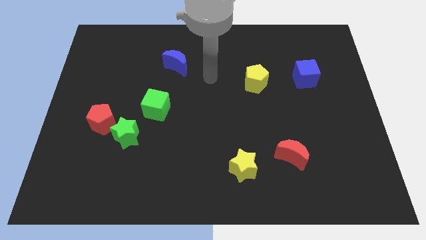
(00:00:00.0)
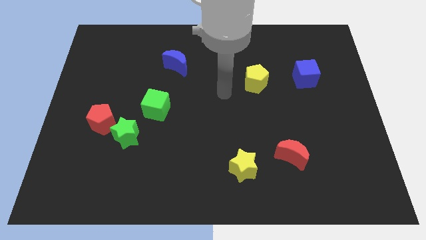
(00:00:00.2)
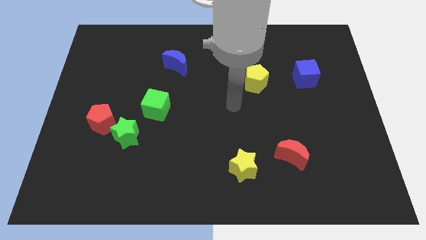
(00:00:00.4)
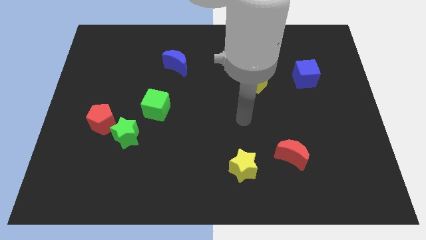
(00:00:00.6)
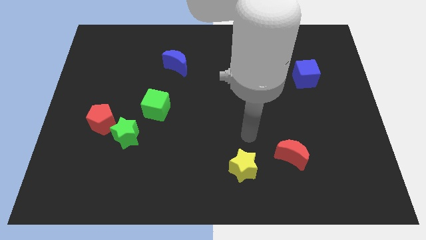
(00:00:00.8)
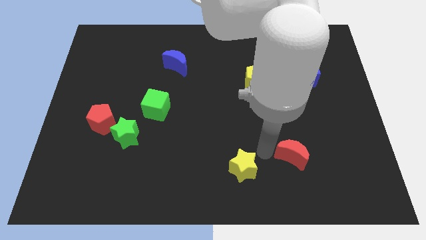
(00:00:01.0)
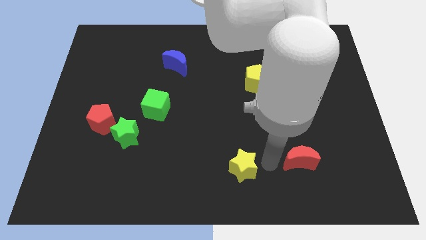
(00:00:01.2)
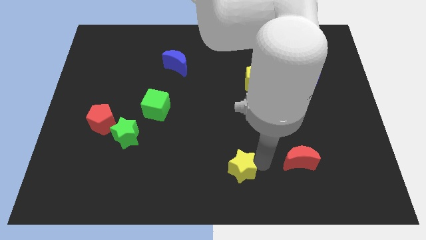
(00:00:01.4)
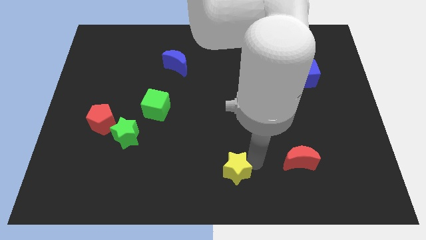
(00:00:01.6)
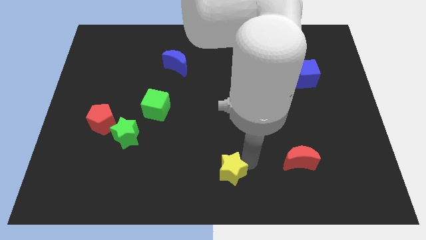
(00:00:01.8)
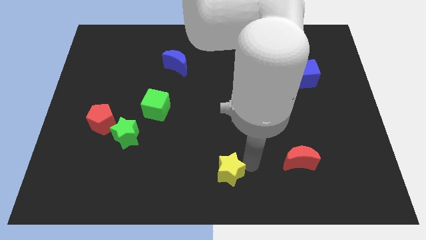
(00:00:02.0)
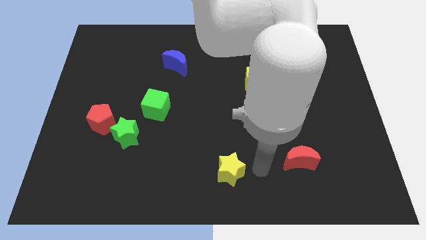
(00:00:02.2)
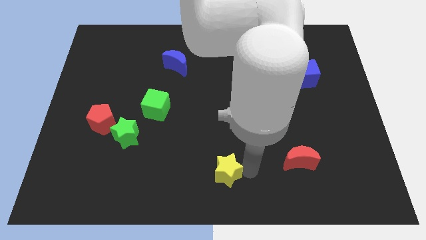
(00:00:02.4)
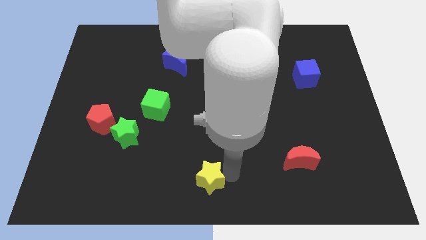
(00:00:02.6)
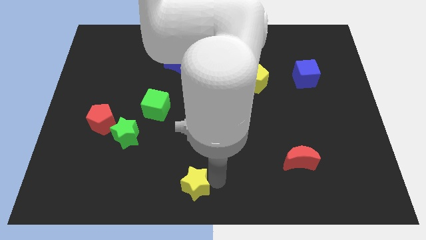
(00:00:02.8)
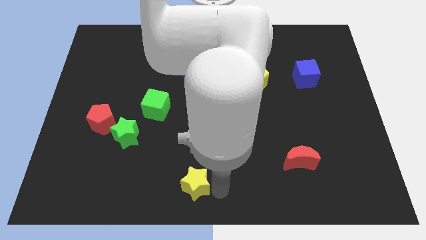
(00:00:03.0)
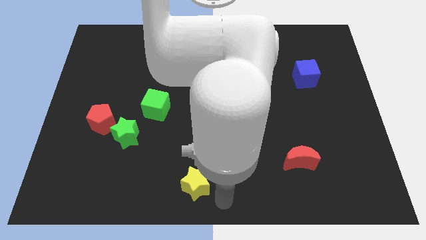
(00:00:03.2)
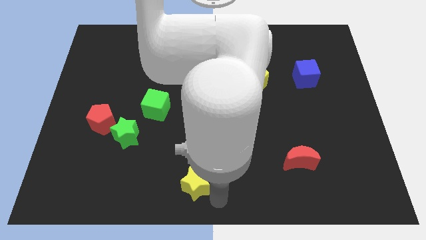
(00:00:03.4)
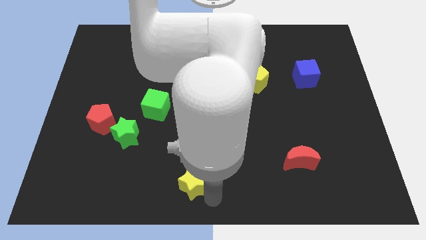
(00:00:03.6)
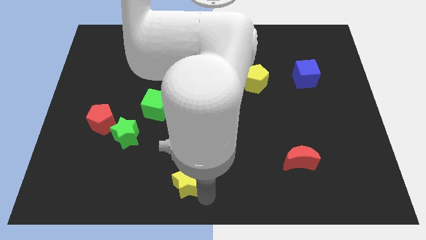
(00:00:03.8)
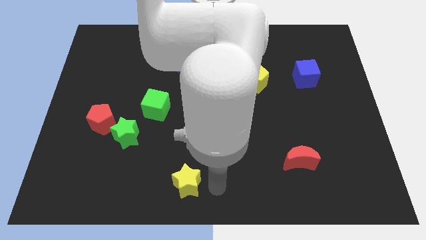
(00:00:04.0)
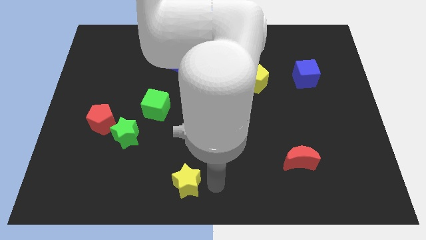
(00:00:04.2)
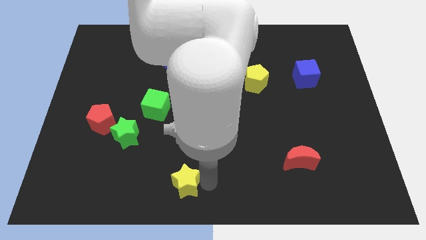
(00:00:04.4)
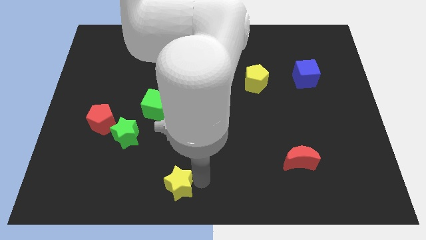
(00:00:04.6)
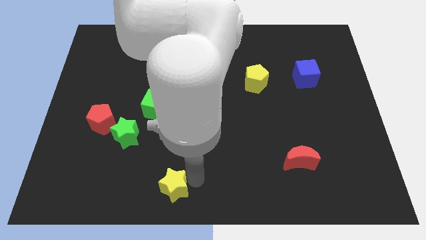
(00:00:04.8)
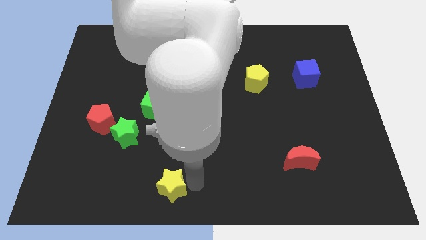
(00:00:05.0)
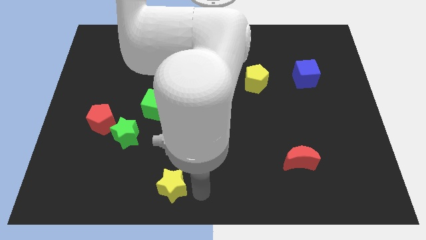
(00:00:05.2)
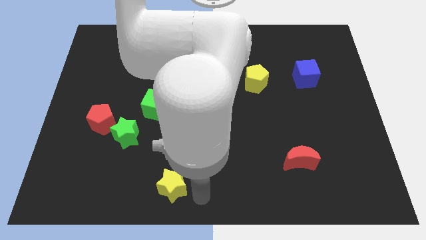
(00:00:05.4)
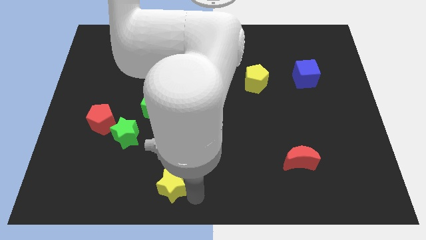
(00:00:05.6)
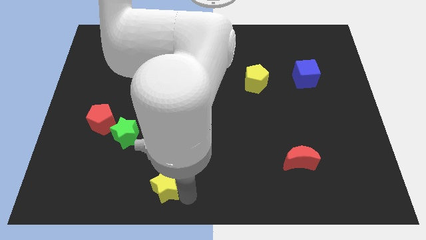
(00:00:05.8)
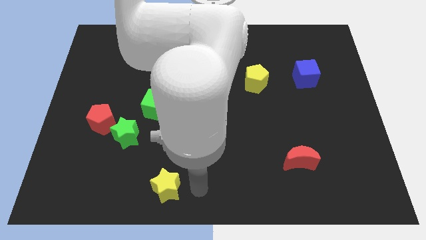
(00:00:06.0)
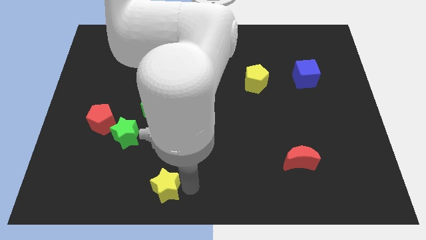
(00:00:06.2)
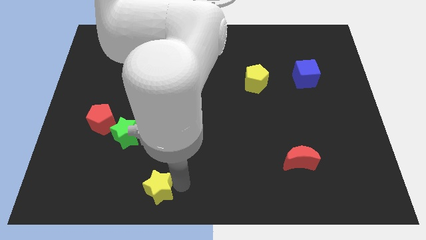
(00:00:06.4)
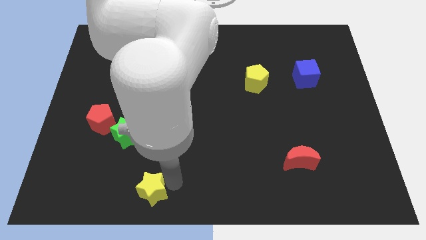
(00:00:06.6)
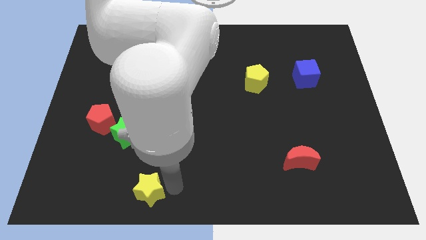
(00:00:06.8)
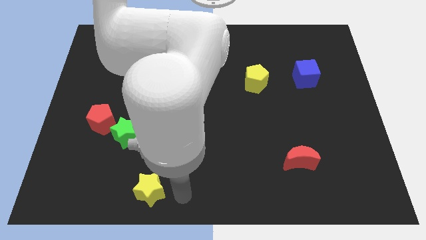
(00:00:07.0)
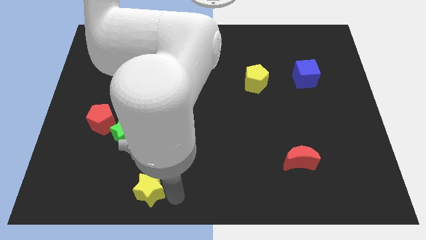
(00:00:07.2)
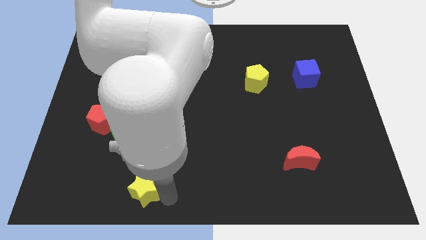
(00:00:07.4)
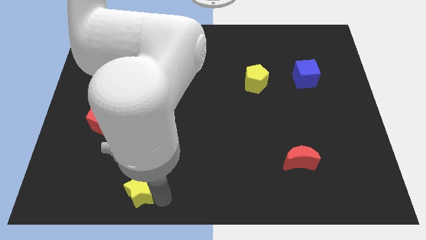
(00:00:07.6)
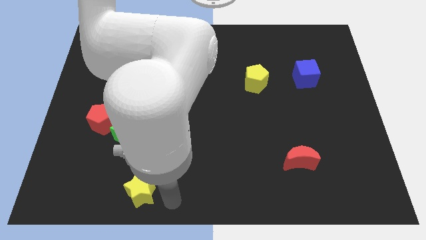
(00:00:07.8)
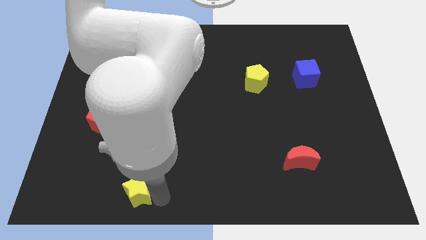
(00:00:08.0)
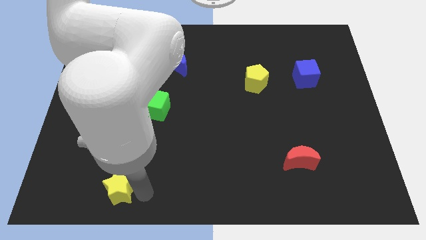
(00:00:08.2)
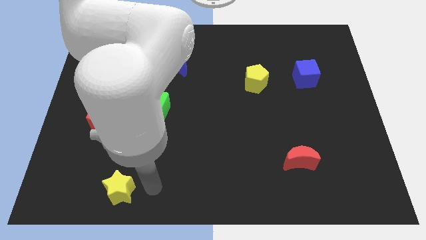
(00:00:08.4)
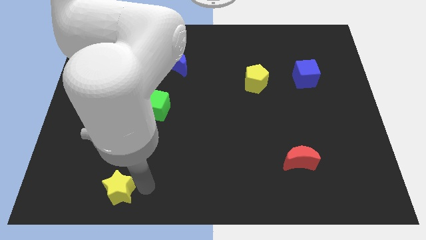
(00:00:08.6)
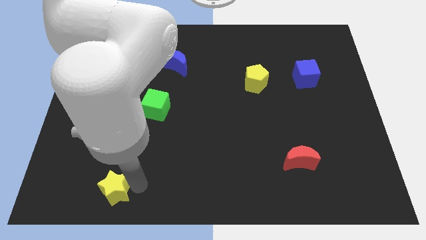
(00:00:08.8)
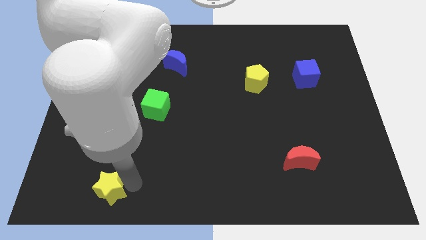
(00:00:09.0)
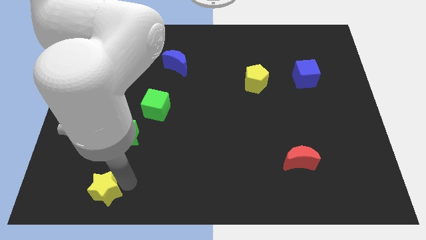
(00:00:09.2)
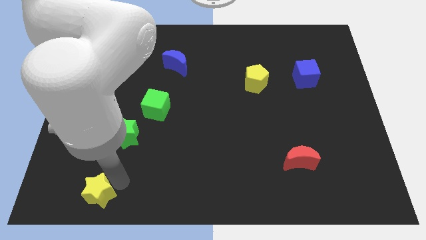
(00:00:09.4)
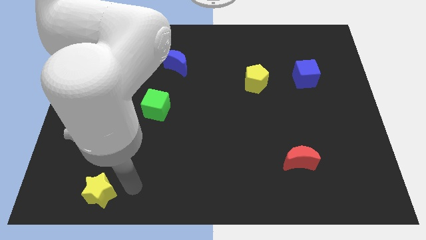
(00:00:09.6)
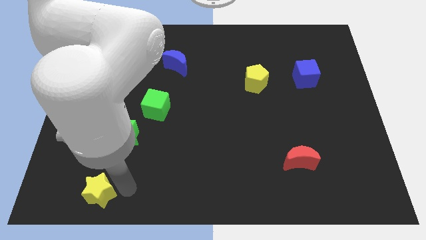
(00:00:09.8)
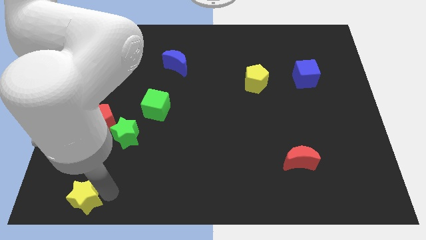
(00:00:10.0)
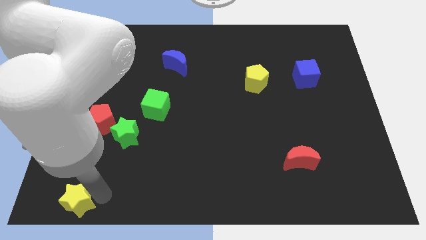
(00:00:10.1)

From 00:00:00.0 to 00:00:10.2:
move the yellow star to the lower left corner

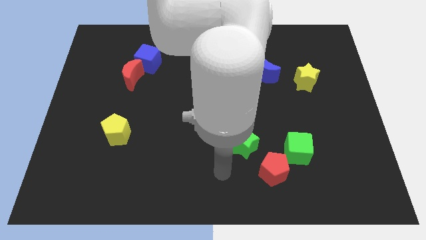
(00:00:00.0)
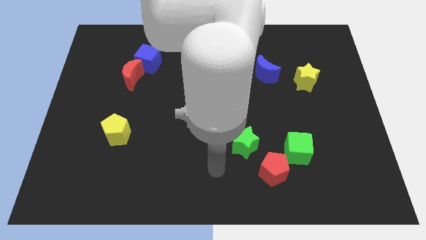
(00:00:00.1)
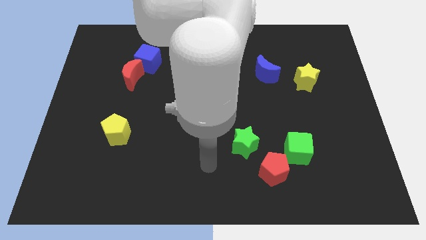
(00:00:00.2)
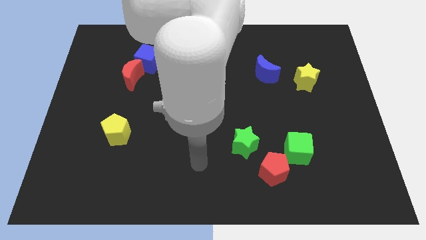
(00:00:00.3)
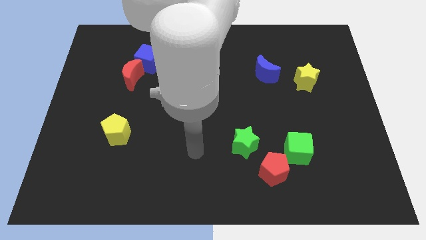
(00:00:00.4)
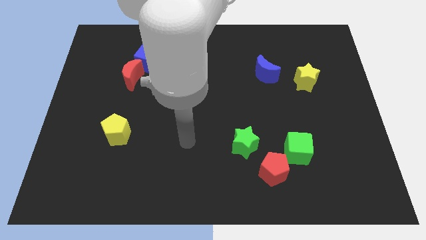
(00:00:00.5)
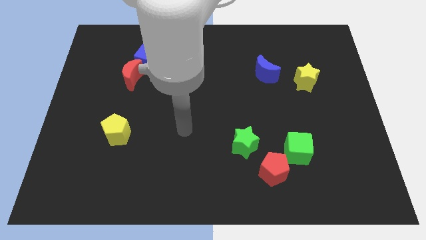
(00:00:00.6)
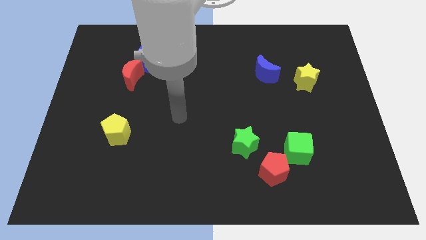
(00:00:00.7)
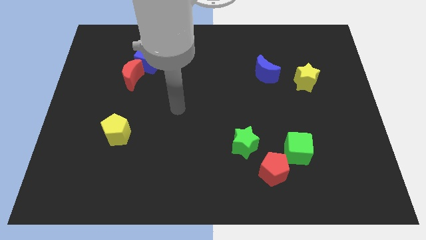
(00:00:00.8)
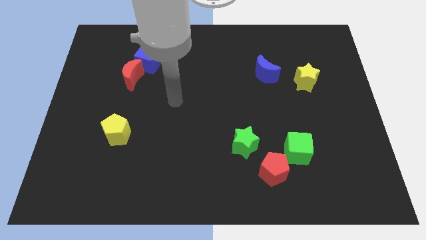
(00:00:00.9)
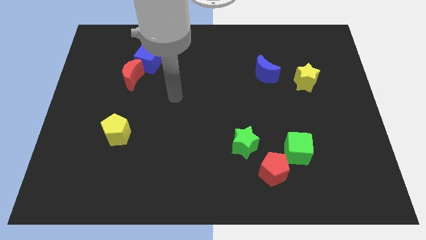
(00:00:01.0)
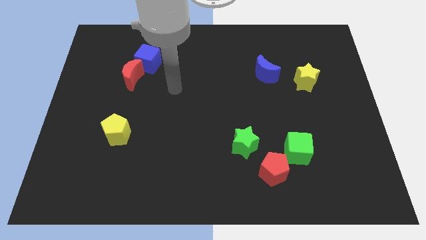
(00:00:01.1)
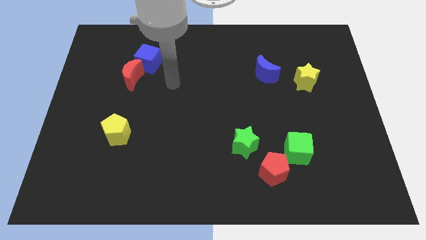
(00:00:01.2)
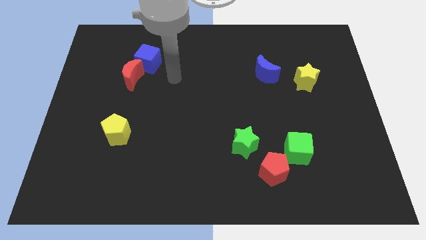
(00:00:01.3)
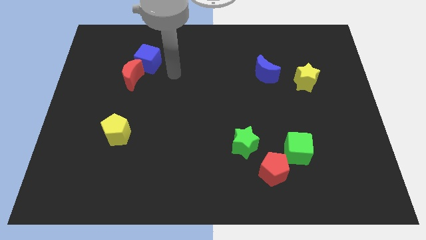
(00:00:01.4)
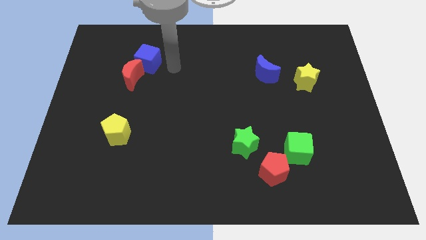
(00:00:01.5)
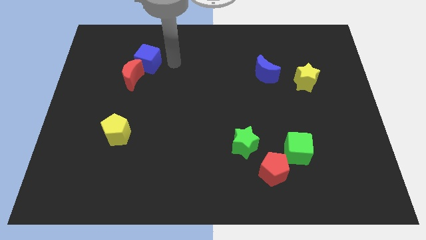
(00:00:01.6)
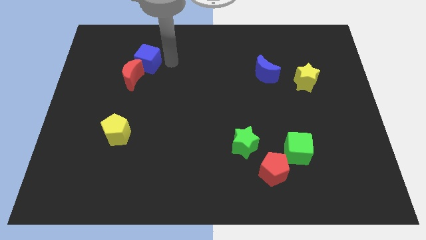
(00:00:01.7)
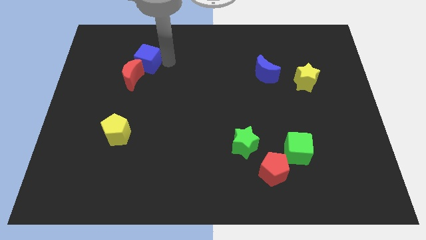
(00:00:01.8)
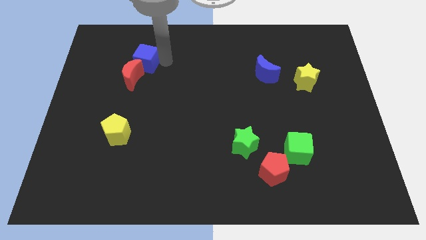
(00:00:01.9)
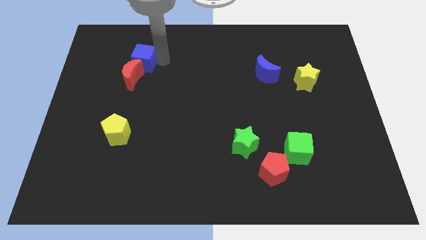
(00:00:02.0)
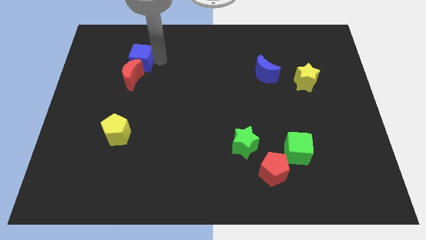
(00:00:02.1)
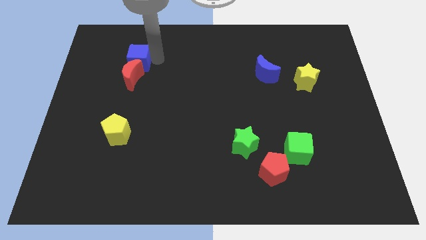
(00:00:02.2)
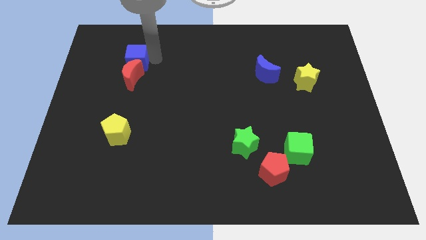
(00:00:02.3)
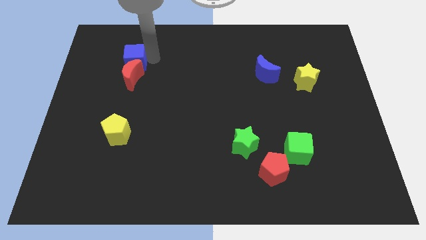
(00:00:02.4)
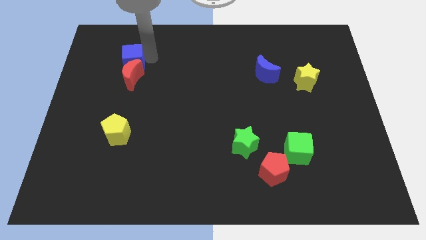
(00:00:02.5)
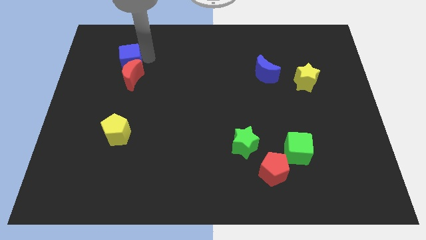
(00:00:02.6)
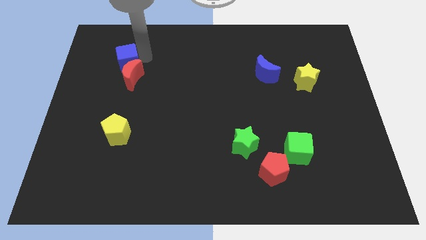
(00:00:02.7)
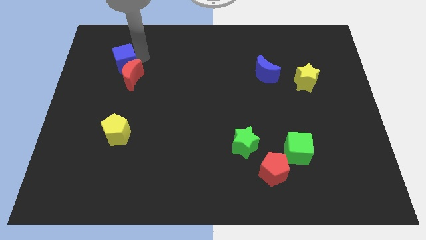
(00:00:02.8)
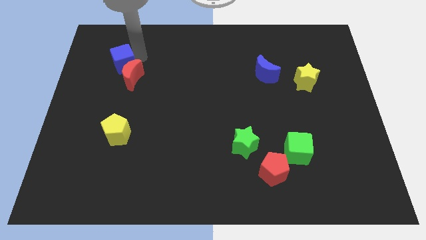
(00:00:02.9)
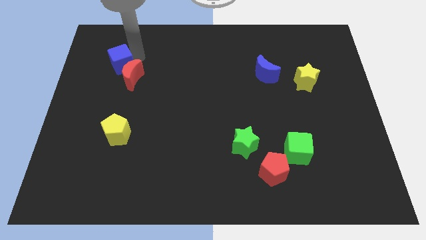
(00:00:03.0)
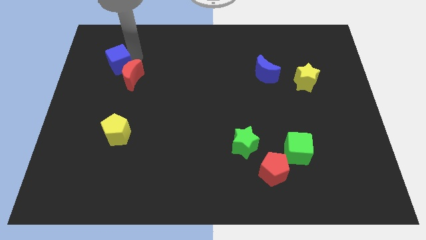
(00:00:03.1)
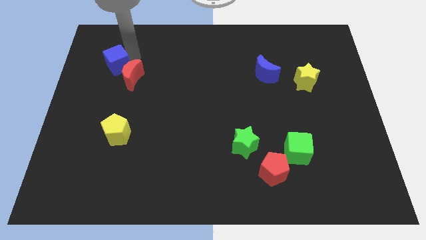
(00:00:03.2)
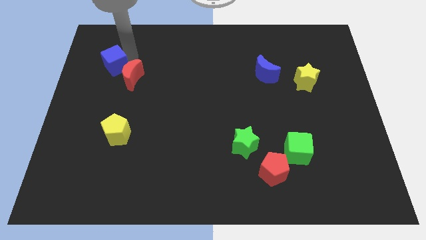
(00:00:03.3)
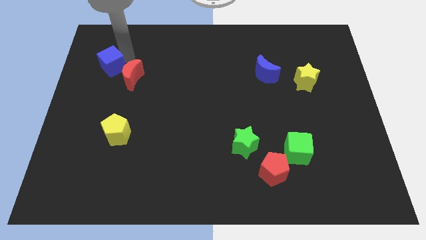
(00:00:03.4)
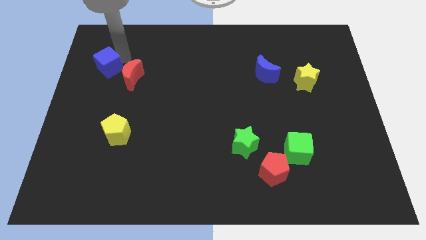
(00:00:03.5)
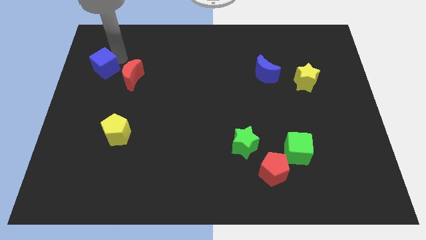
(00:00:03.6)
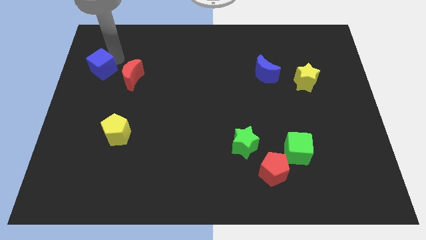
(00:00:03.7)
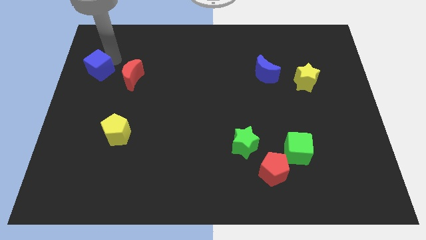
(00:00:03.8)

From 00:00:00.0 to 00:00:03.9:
put the blue cube to the left side
